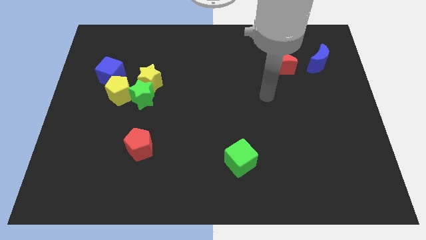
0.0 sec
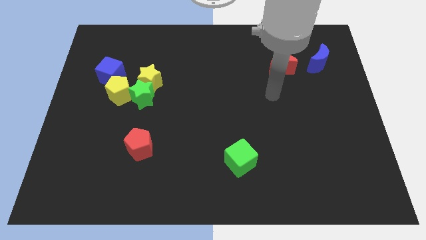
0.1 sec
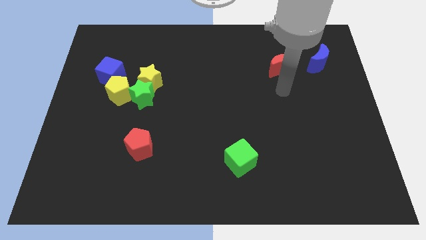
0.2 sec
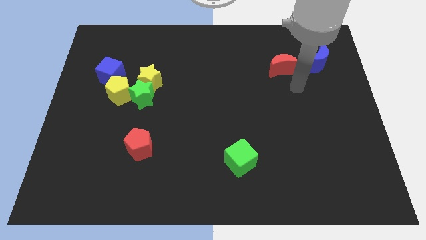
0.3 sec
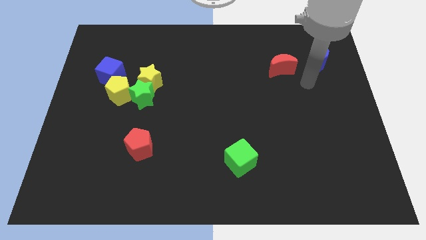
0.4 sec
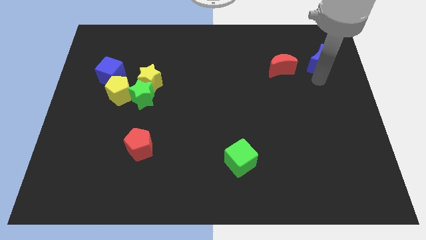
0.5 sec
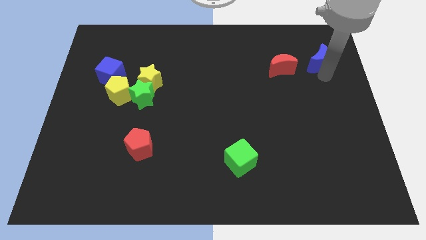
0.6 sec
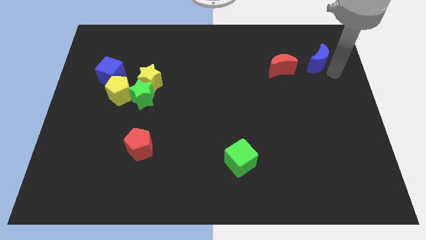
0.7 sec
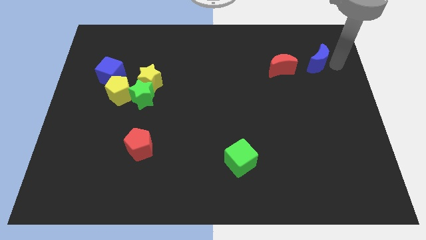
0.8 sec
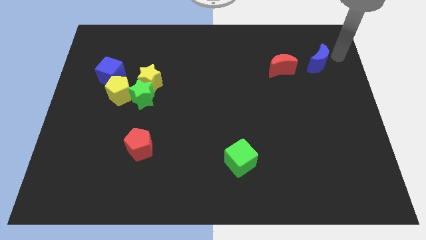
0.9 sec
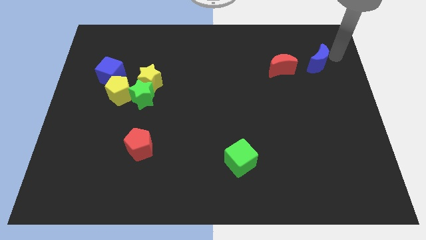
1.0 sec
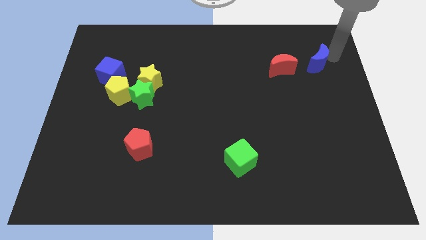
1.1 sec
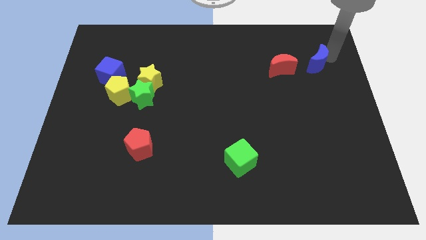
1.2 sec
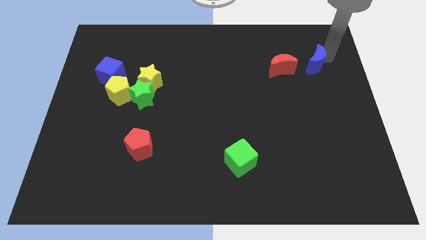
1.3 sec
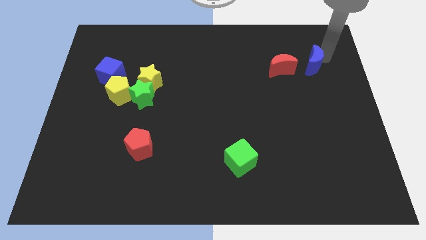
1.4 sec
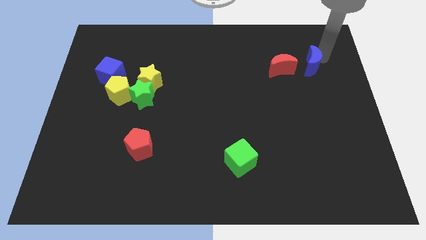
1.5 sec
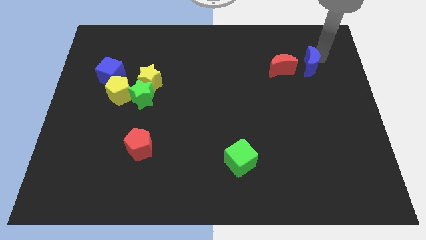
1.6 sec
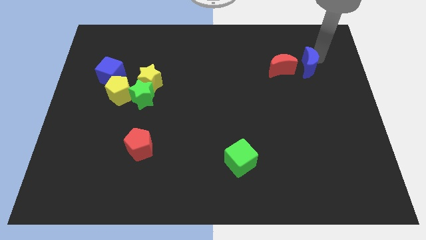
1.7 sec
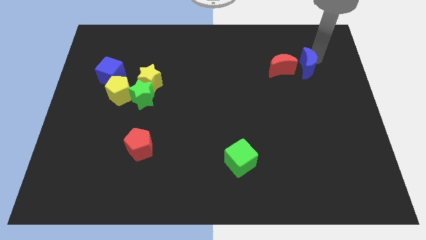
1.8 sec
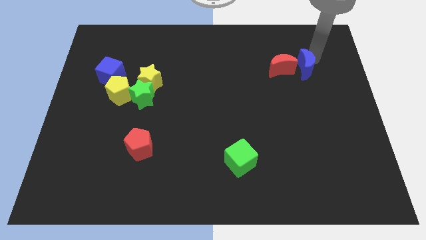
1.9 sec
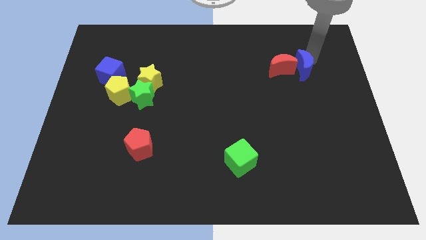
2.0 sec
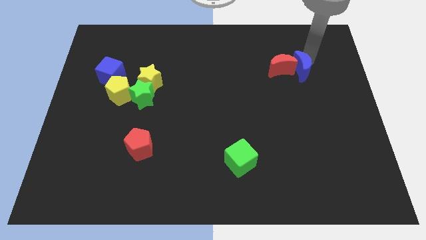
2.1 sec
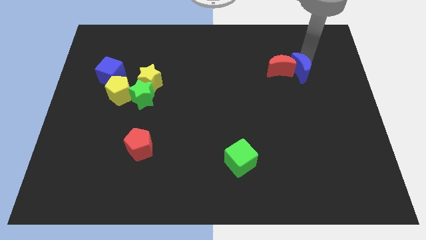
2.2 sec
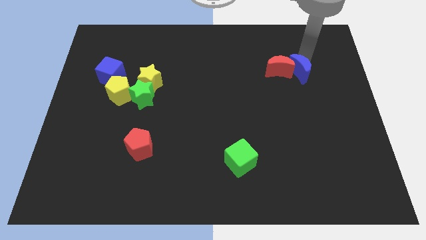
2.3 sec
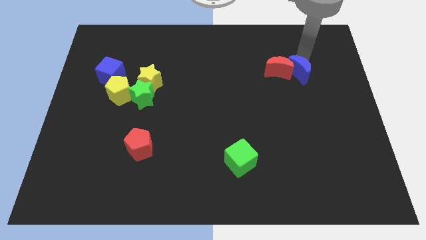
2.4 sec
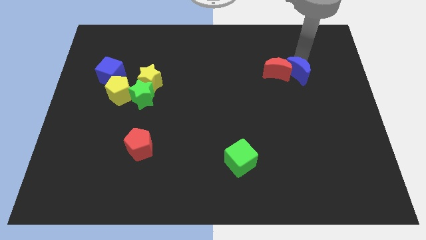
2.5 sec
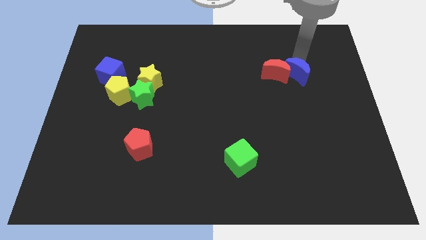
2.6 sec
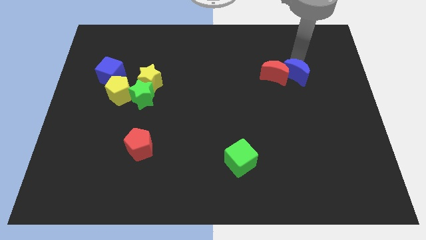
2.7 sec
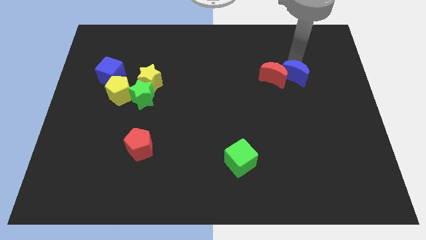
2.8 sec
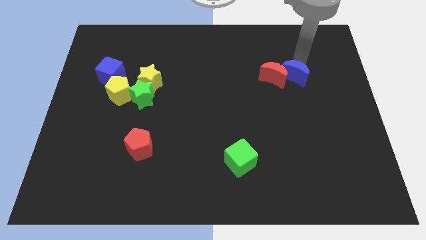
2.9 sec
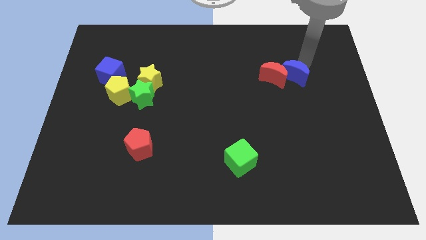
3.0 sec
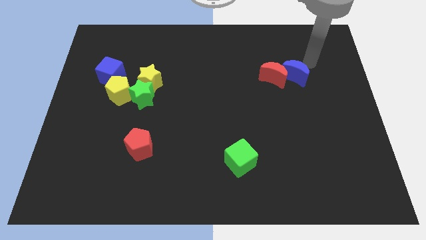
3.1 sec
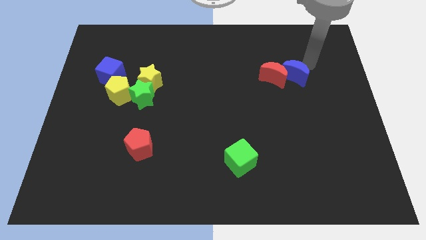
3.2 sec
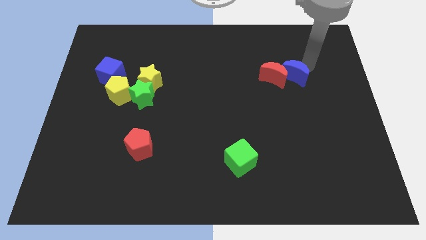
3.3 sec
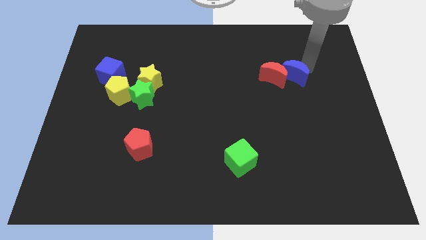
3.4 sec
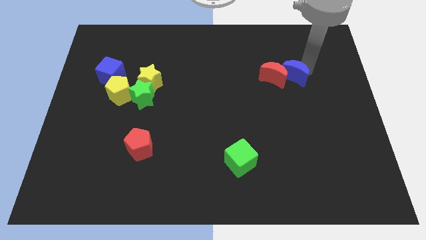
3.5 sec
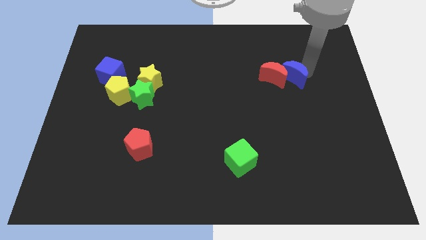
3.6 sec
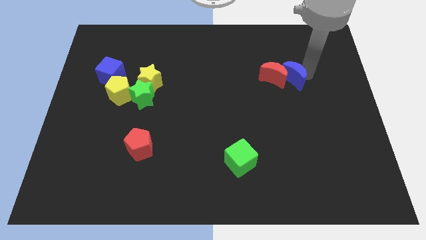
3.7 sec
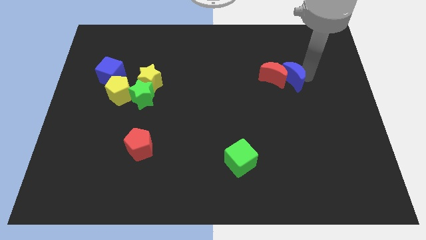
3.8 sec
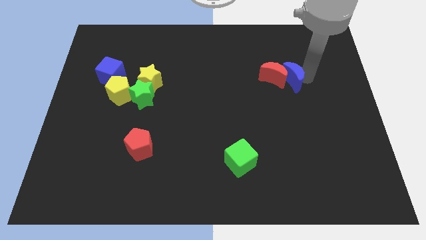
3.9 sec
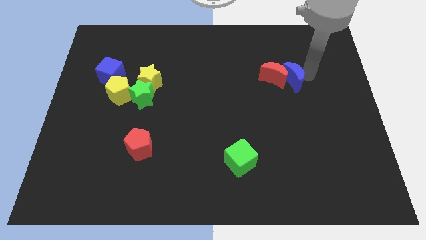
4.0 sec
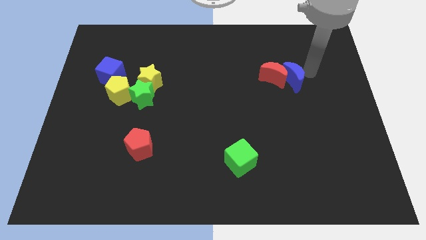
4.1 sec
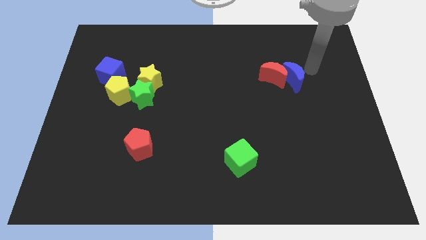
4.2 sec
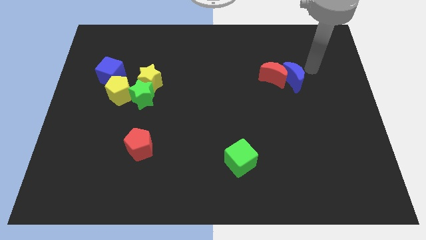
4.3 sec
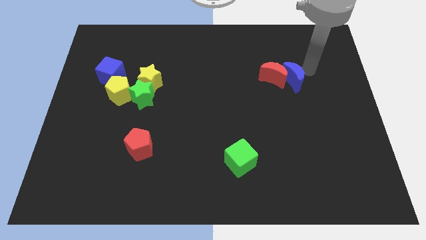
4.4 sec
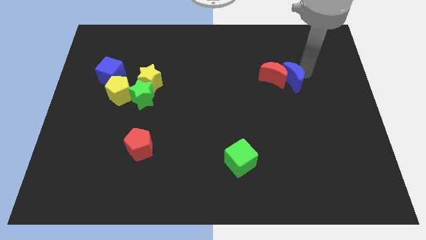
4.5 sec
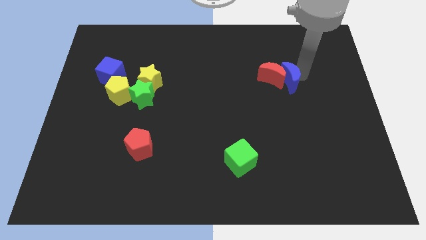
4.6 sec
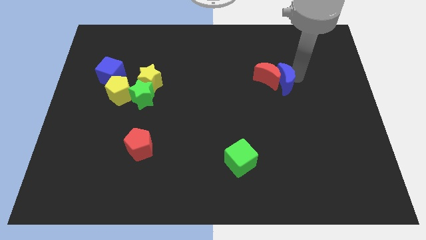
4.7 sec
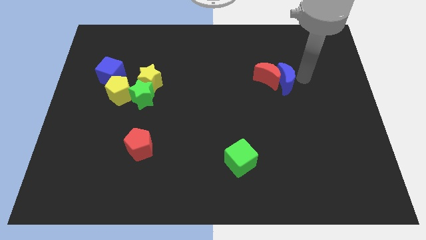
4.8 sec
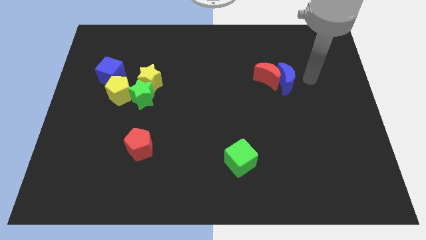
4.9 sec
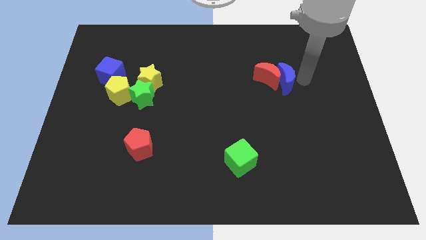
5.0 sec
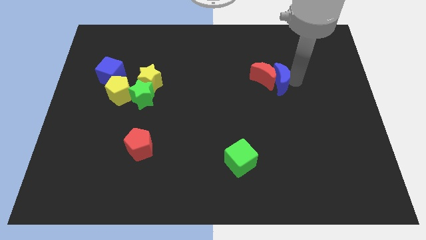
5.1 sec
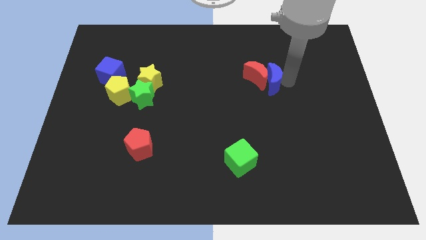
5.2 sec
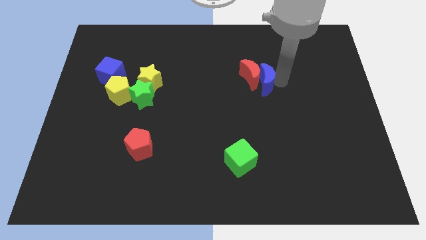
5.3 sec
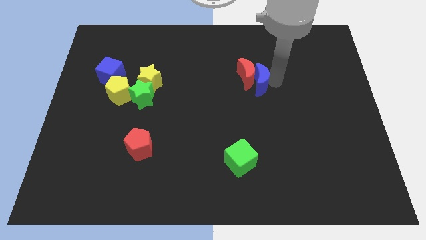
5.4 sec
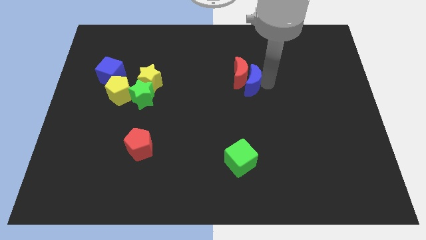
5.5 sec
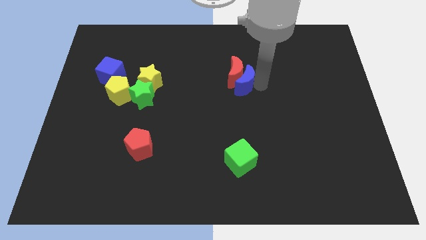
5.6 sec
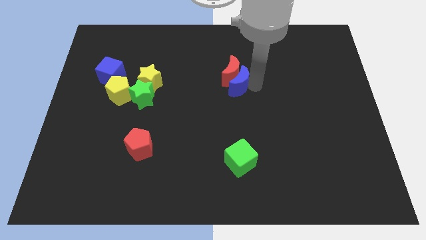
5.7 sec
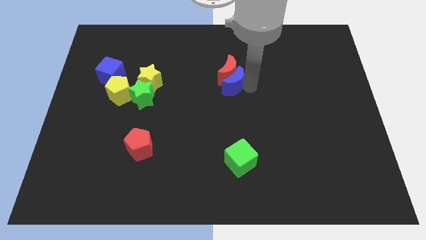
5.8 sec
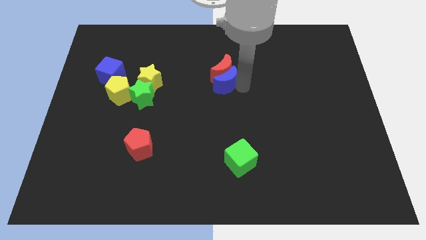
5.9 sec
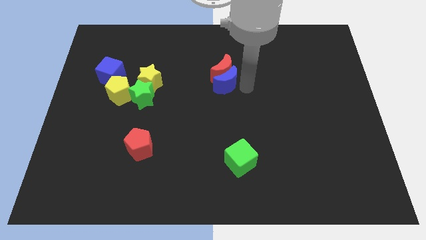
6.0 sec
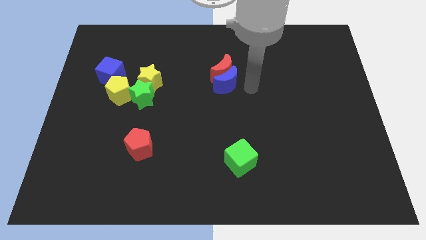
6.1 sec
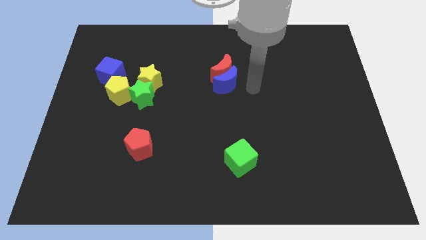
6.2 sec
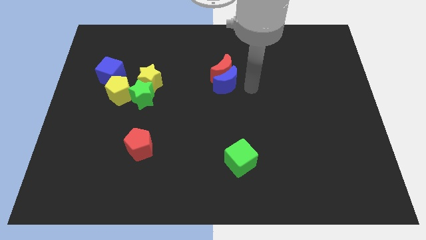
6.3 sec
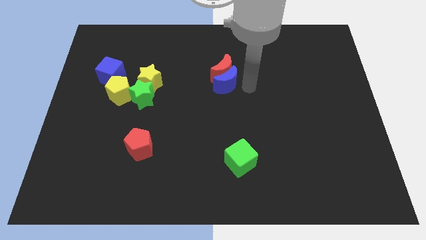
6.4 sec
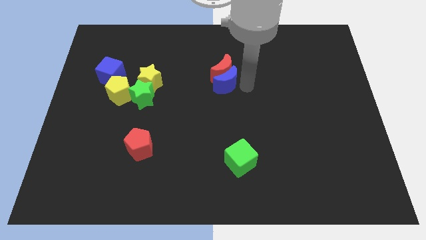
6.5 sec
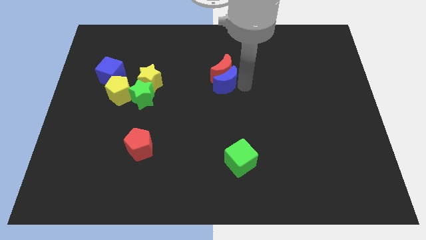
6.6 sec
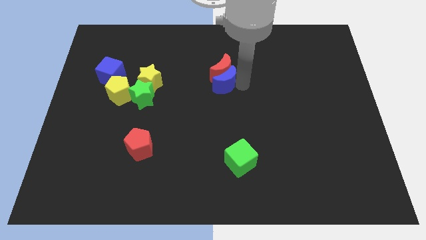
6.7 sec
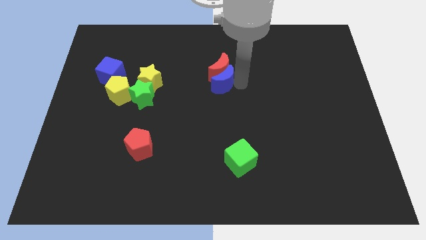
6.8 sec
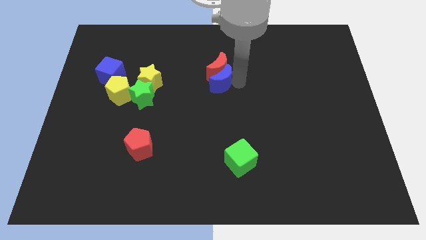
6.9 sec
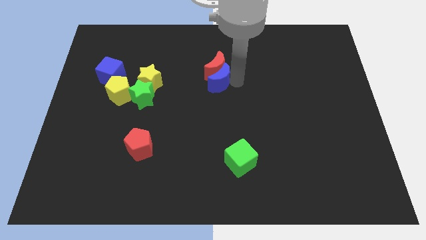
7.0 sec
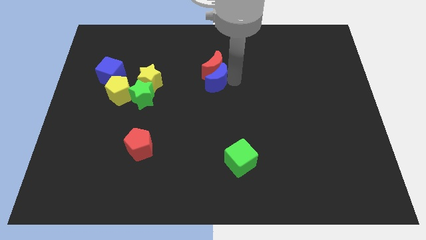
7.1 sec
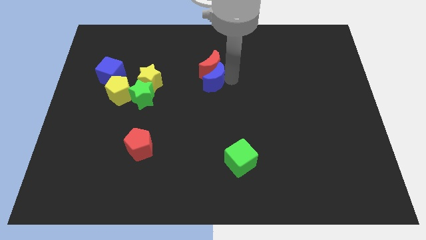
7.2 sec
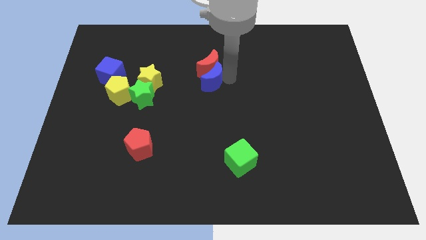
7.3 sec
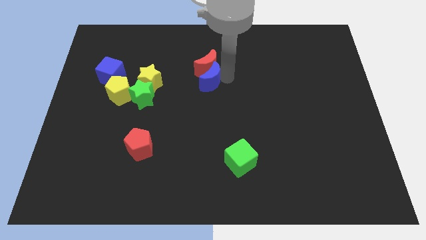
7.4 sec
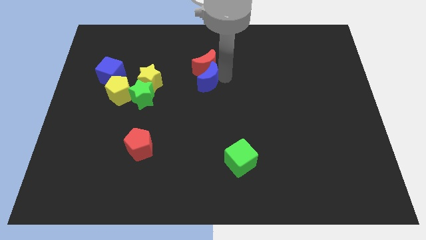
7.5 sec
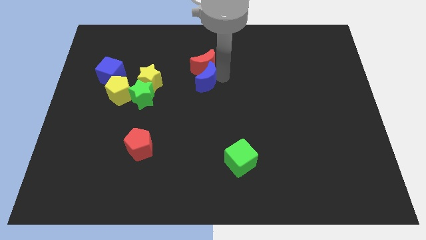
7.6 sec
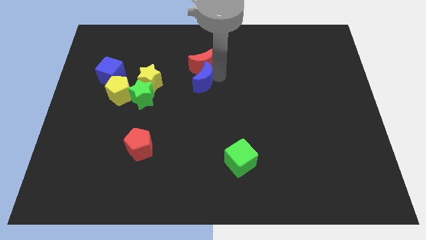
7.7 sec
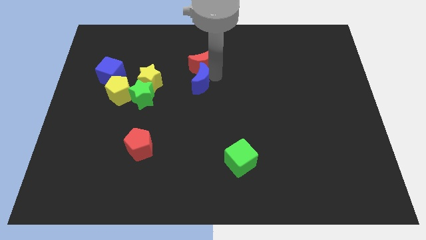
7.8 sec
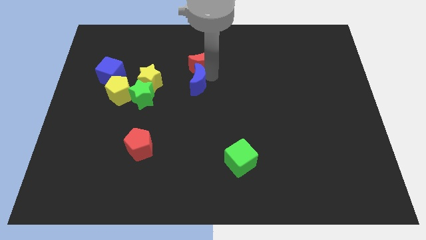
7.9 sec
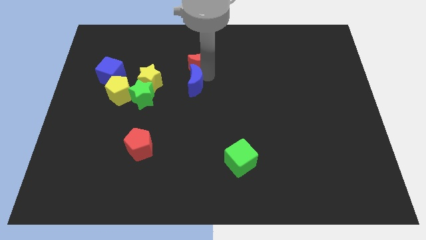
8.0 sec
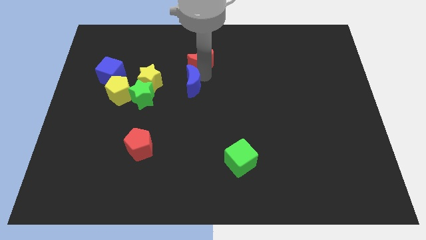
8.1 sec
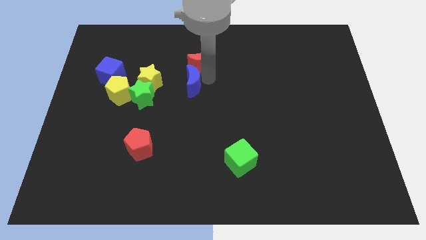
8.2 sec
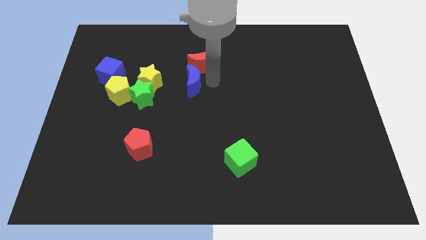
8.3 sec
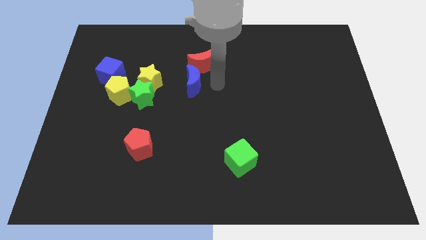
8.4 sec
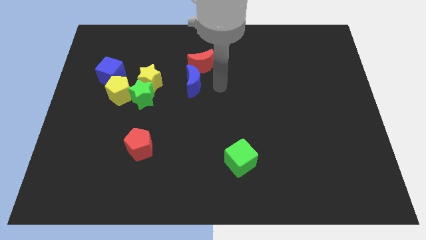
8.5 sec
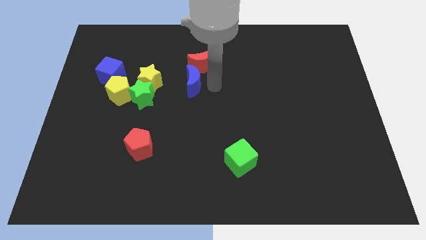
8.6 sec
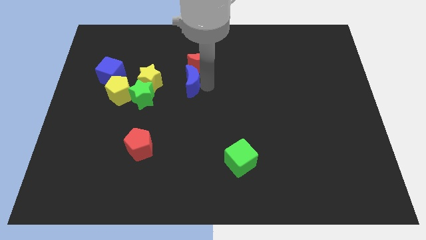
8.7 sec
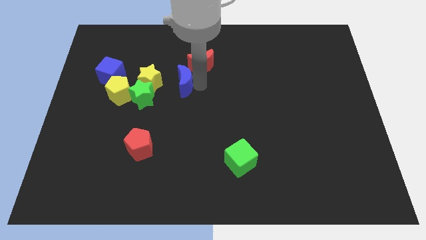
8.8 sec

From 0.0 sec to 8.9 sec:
push the blue moon diagonally up and to the right of the green star
